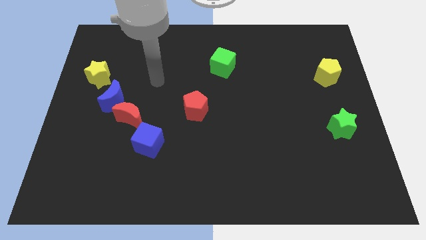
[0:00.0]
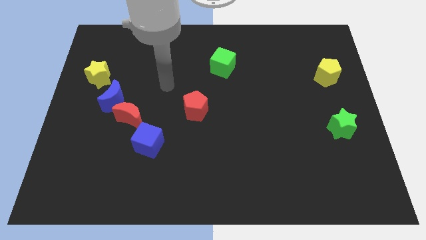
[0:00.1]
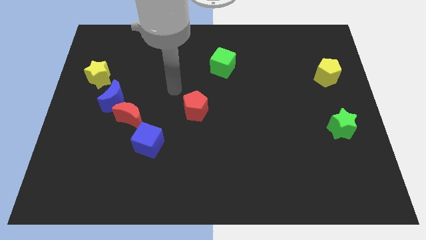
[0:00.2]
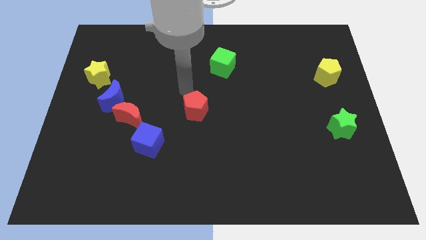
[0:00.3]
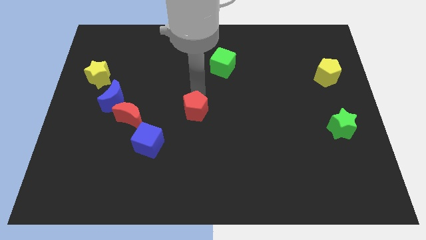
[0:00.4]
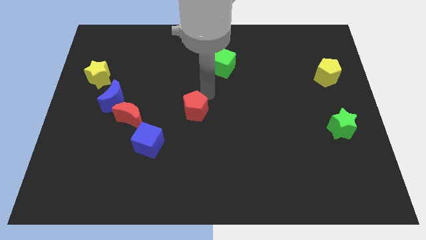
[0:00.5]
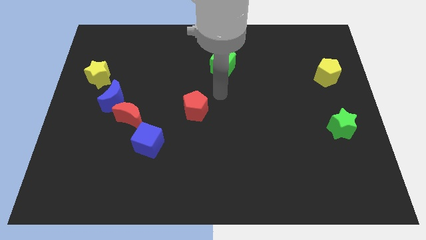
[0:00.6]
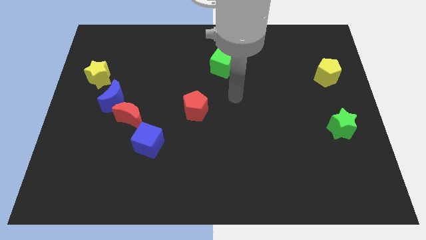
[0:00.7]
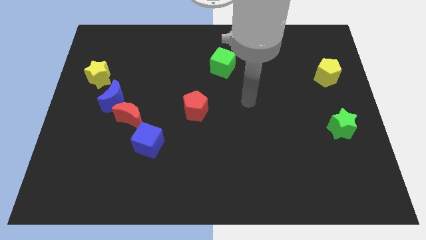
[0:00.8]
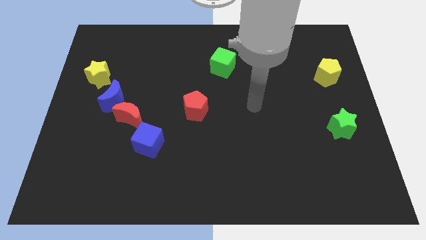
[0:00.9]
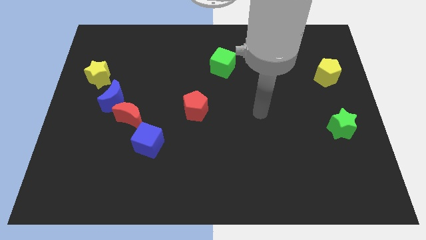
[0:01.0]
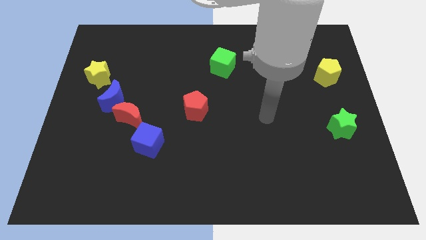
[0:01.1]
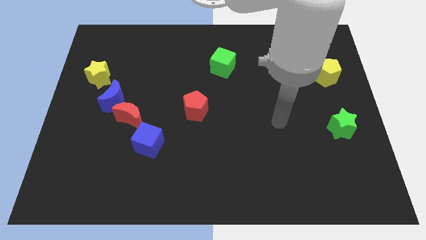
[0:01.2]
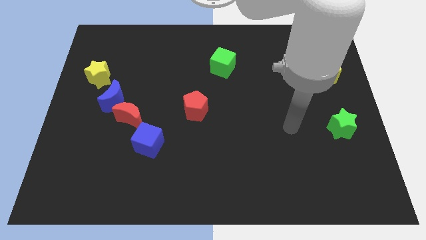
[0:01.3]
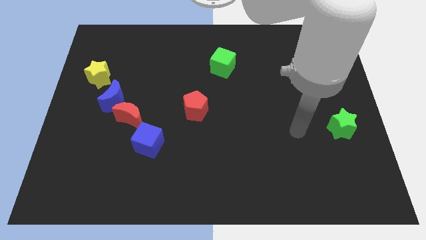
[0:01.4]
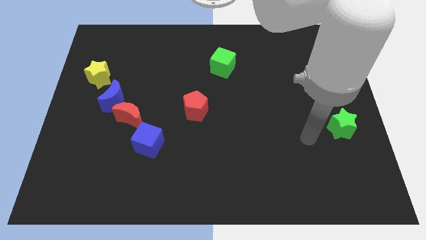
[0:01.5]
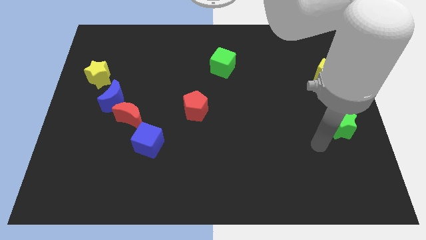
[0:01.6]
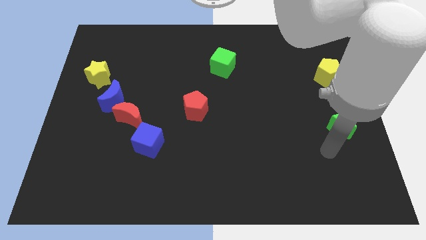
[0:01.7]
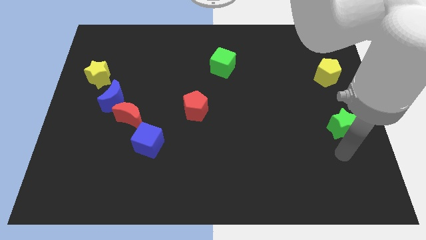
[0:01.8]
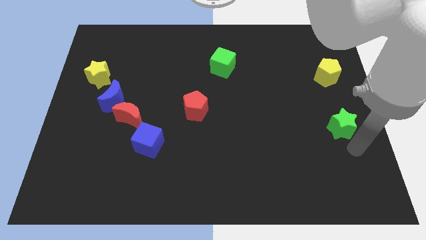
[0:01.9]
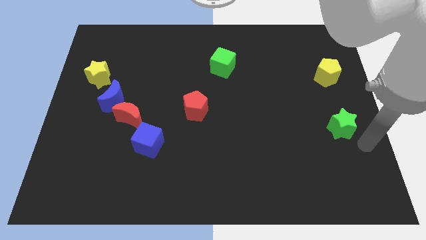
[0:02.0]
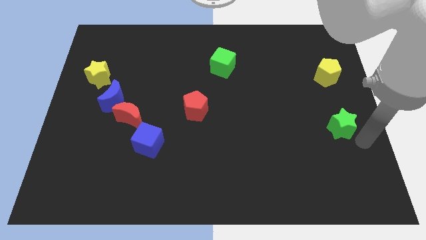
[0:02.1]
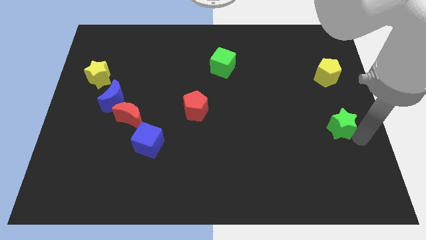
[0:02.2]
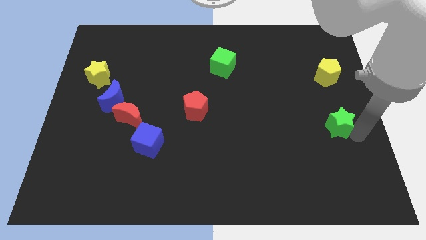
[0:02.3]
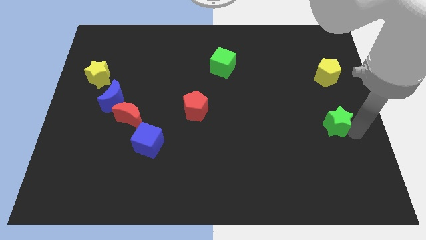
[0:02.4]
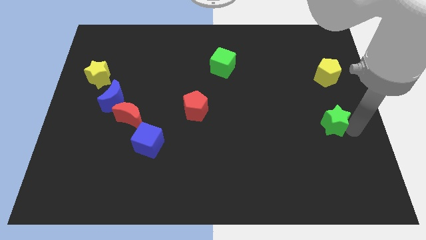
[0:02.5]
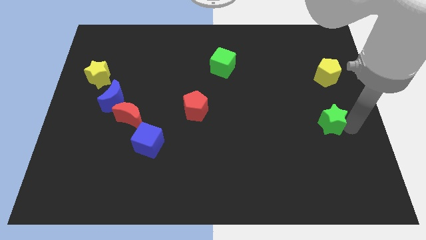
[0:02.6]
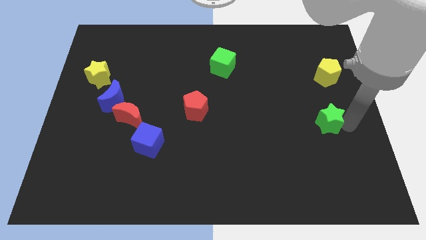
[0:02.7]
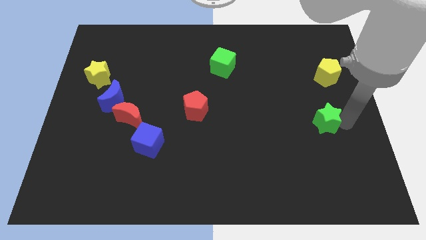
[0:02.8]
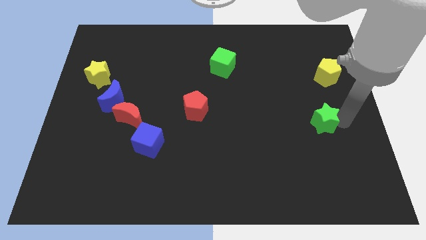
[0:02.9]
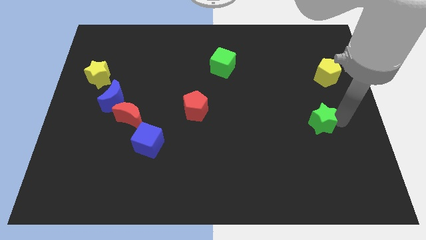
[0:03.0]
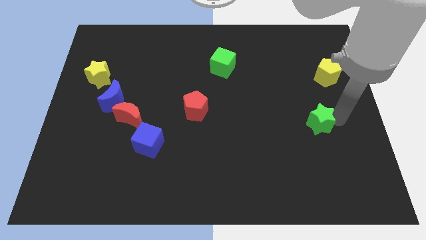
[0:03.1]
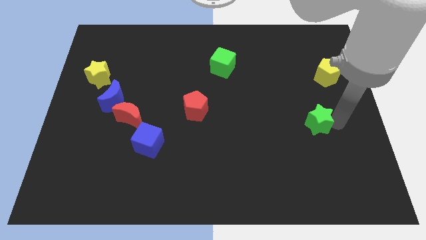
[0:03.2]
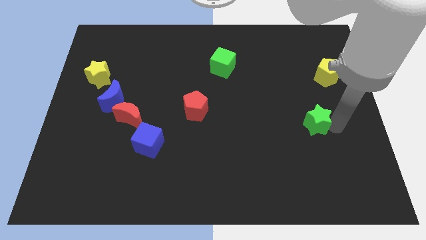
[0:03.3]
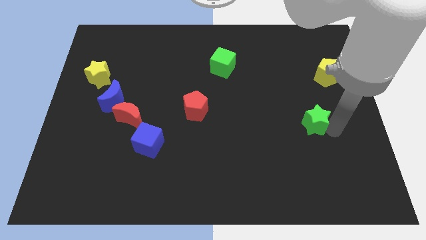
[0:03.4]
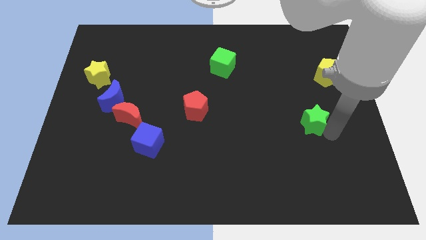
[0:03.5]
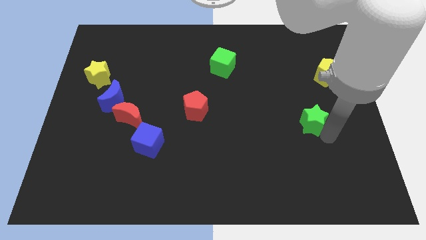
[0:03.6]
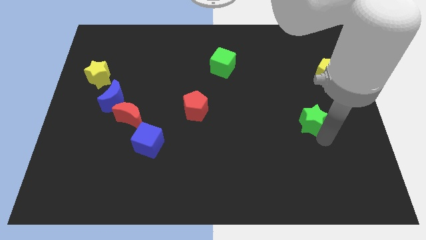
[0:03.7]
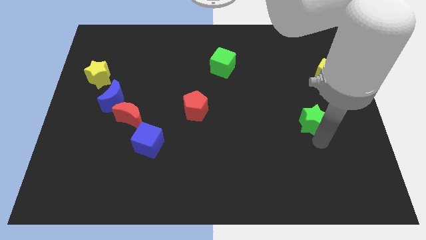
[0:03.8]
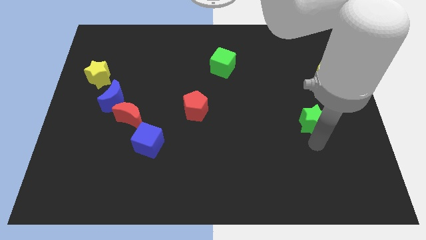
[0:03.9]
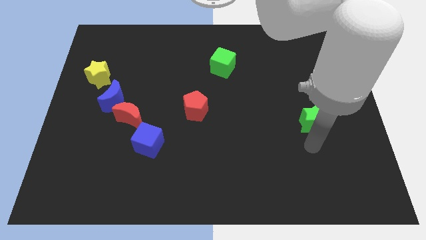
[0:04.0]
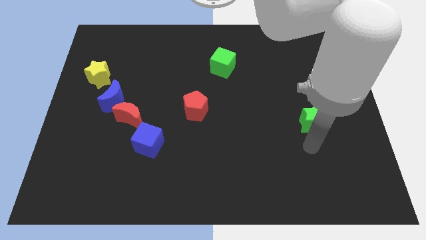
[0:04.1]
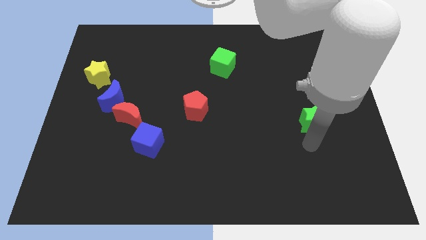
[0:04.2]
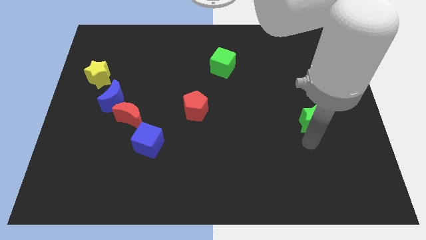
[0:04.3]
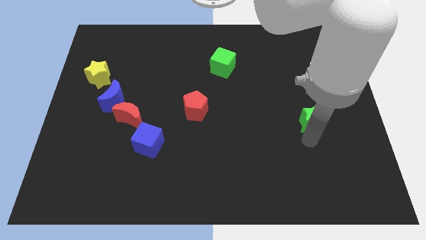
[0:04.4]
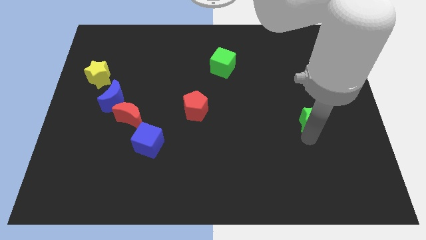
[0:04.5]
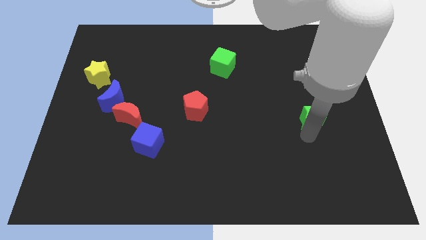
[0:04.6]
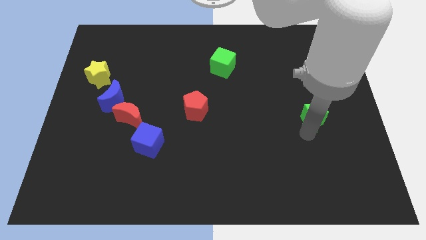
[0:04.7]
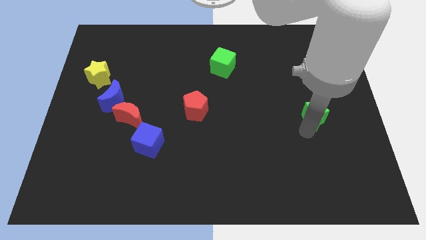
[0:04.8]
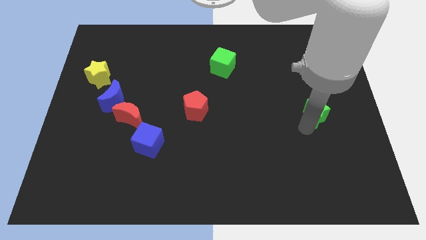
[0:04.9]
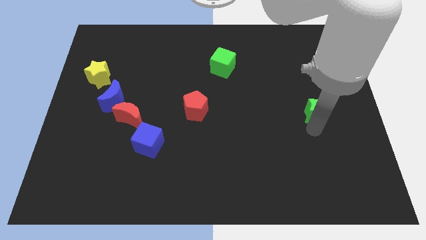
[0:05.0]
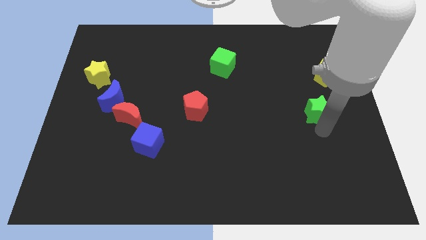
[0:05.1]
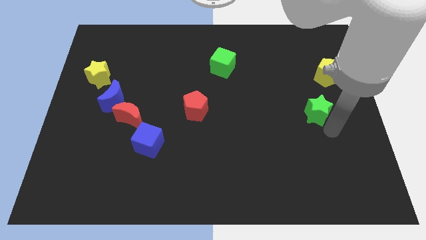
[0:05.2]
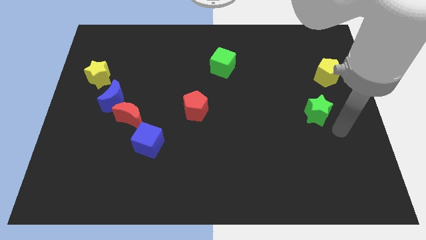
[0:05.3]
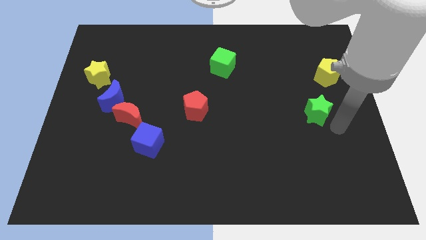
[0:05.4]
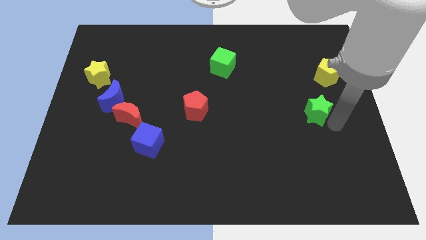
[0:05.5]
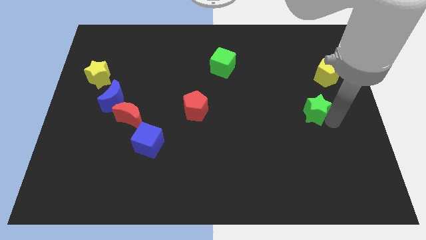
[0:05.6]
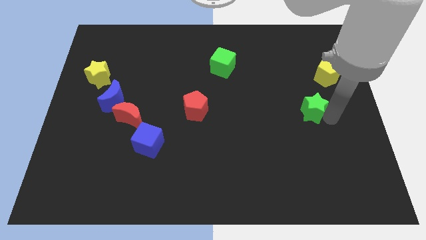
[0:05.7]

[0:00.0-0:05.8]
move the green star a little bit upwards and left diagonally

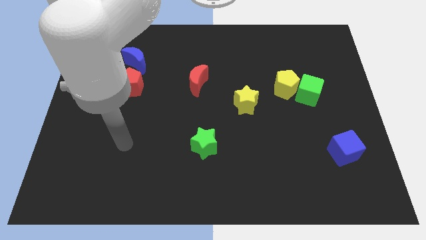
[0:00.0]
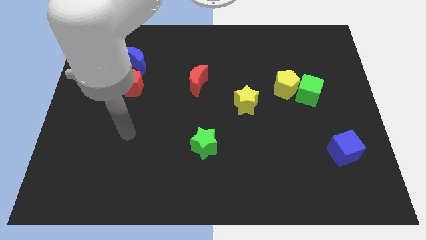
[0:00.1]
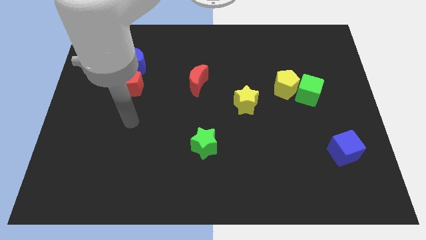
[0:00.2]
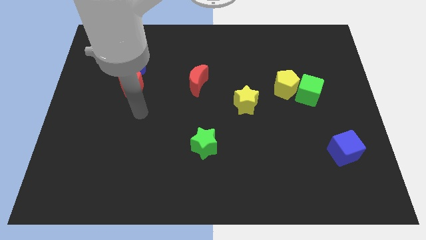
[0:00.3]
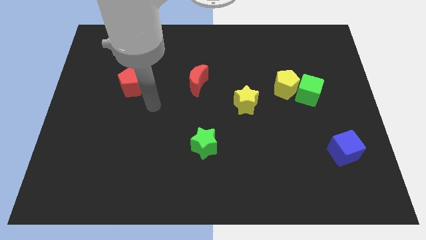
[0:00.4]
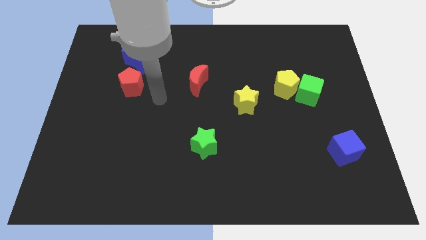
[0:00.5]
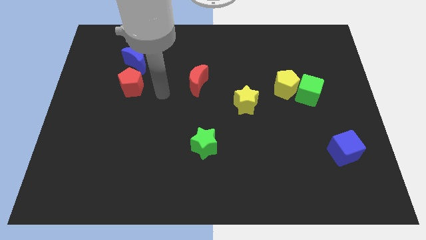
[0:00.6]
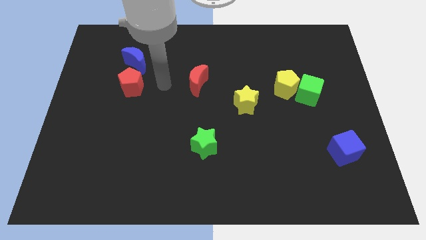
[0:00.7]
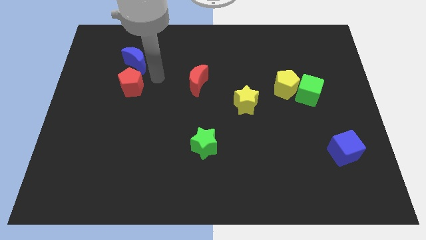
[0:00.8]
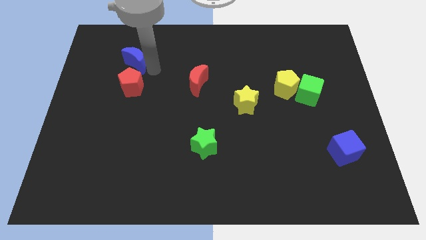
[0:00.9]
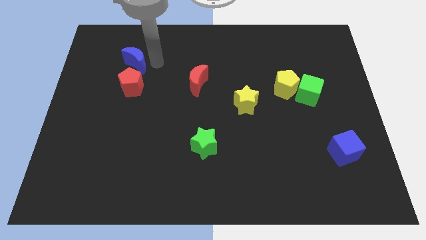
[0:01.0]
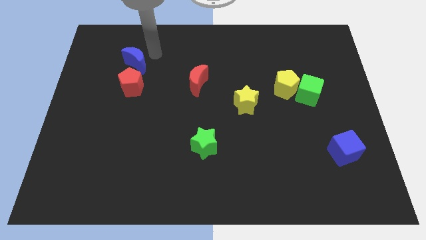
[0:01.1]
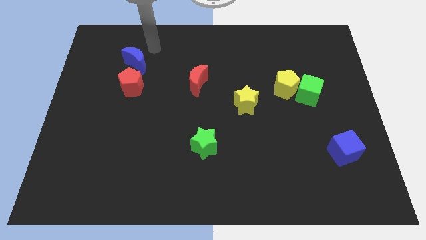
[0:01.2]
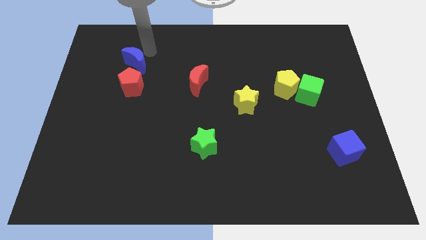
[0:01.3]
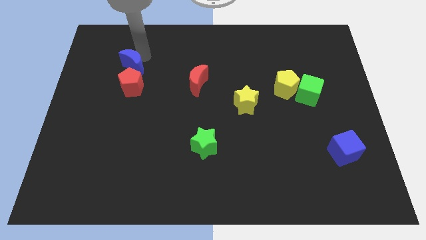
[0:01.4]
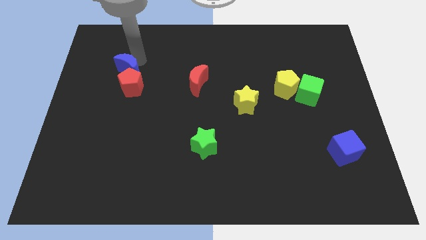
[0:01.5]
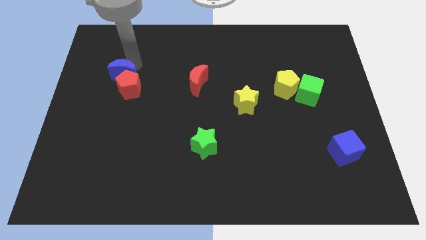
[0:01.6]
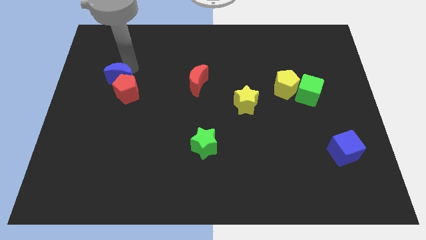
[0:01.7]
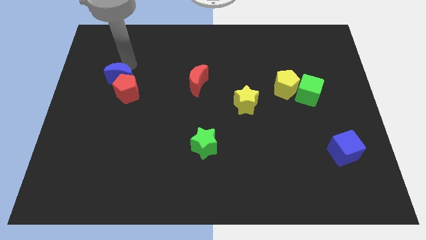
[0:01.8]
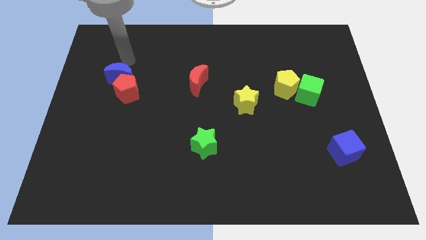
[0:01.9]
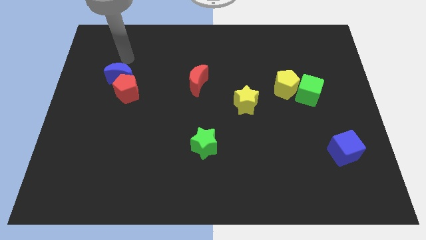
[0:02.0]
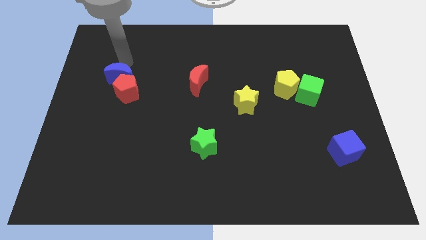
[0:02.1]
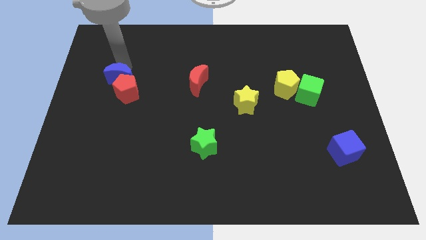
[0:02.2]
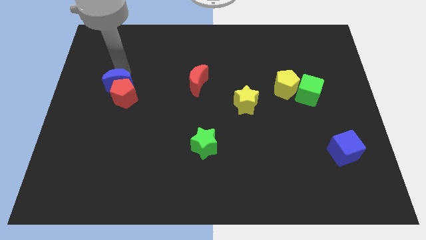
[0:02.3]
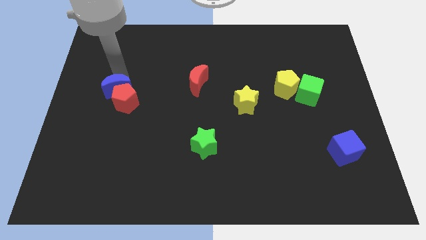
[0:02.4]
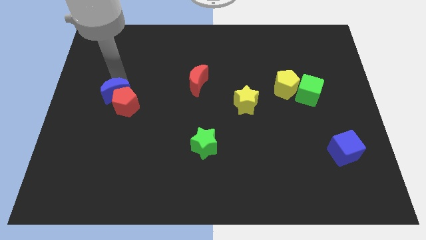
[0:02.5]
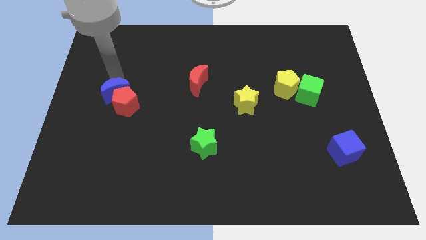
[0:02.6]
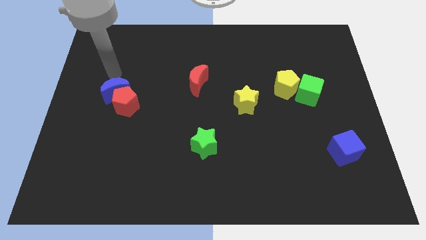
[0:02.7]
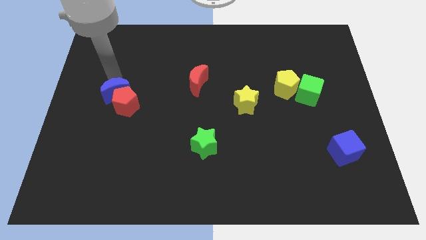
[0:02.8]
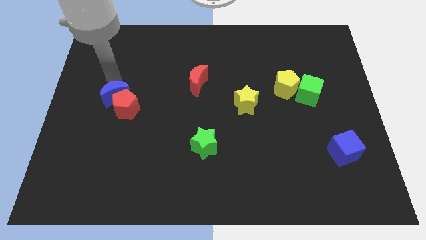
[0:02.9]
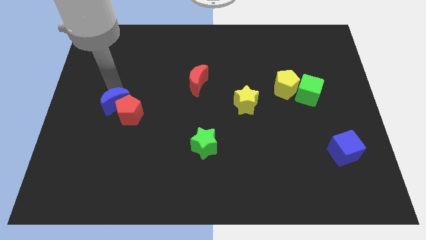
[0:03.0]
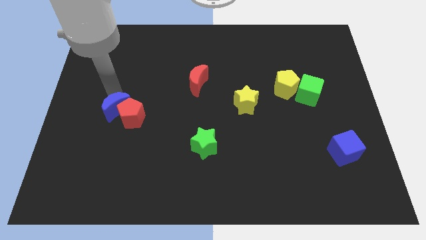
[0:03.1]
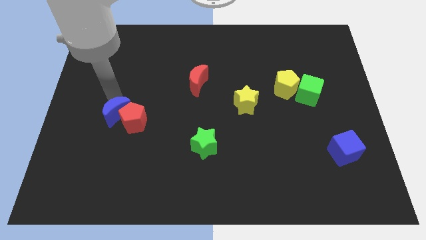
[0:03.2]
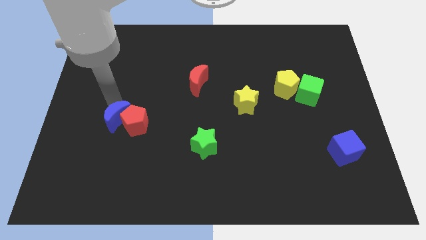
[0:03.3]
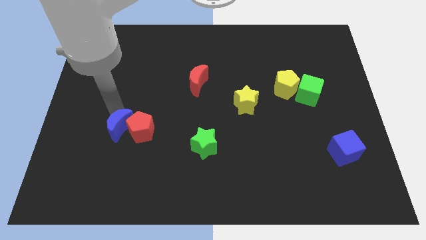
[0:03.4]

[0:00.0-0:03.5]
slide the blue moon down
